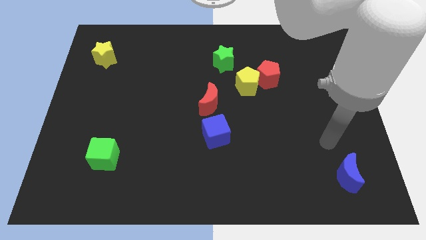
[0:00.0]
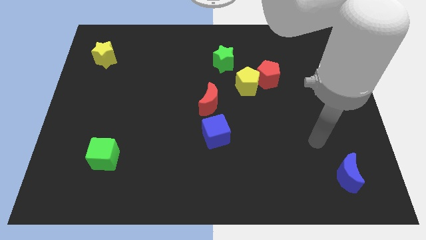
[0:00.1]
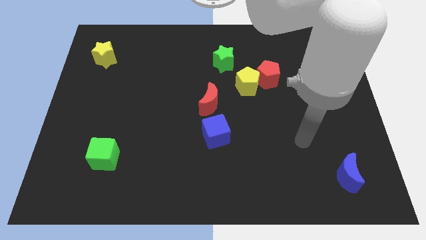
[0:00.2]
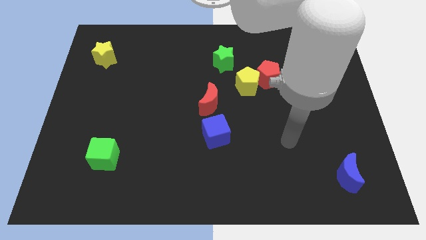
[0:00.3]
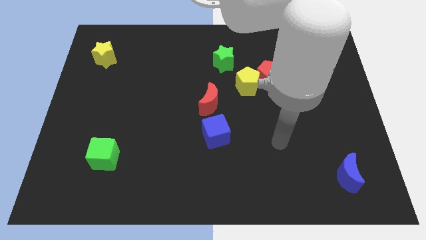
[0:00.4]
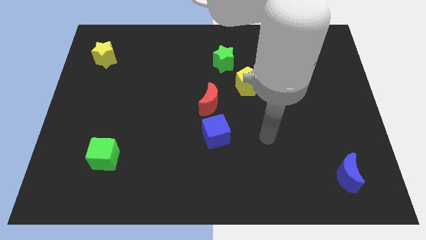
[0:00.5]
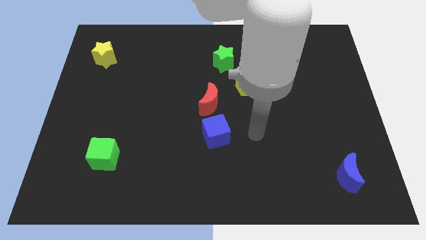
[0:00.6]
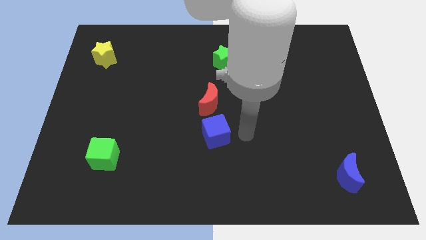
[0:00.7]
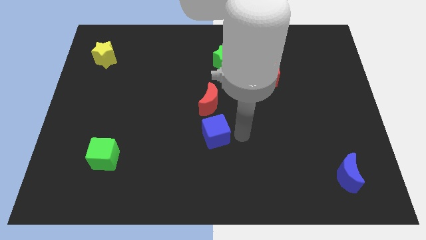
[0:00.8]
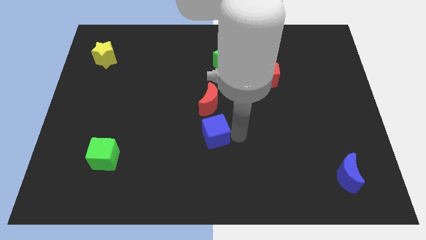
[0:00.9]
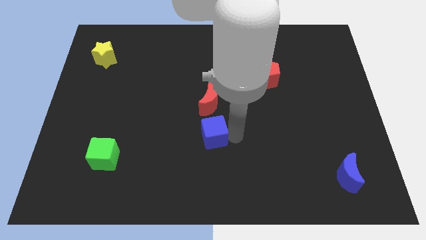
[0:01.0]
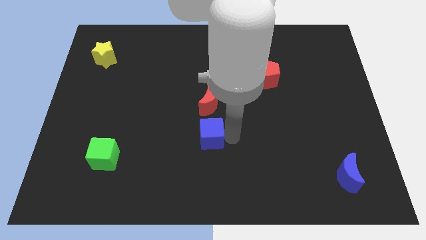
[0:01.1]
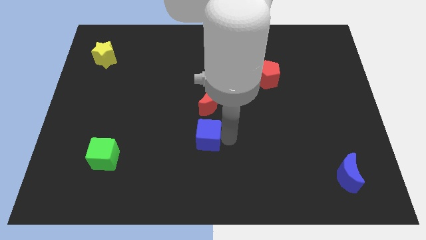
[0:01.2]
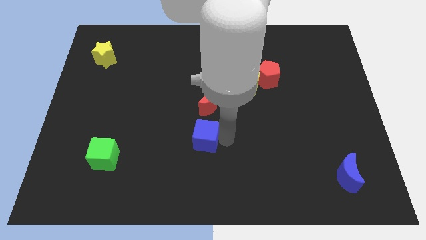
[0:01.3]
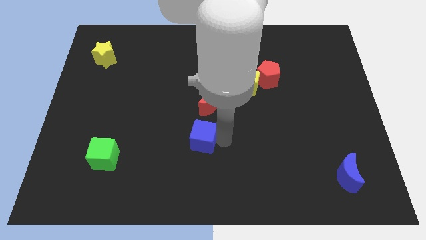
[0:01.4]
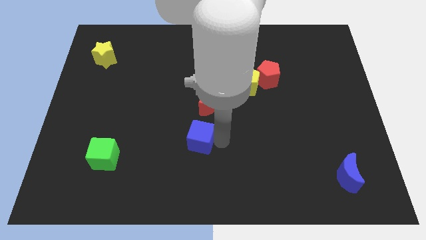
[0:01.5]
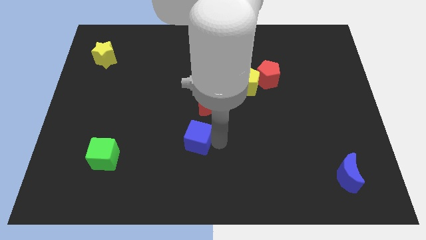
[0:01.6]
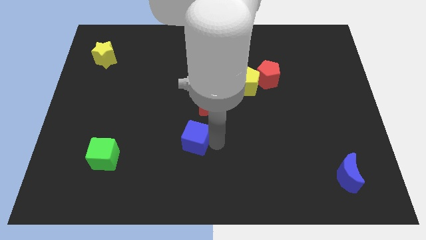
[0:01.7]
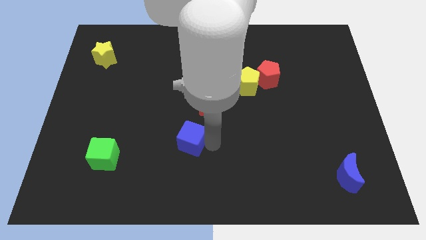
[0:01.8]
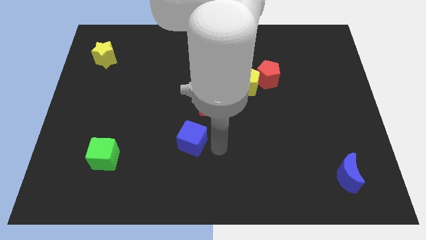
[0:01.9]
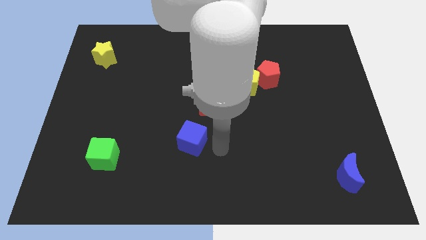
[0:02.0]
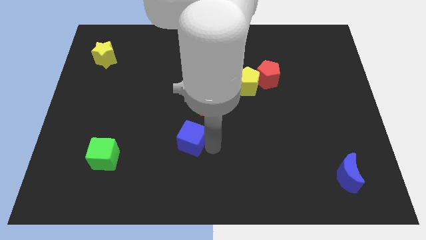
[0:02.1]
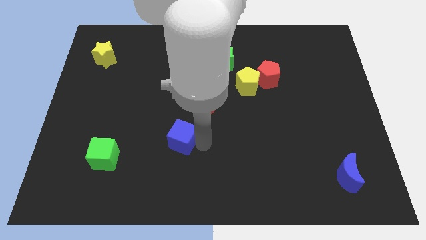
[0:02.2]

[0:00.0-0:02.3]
slightly push the blue cube to the left

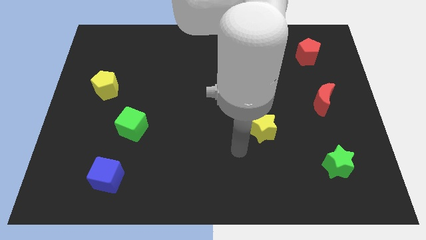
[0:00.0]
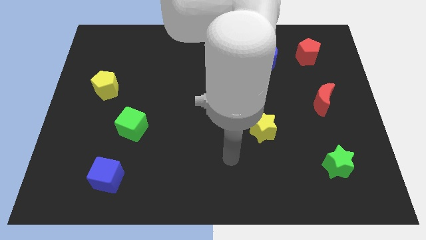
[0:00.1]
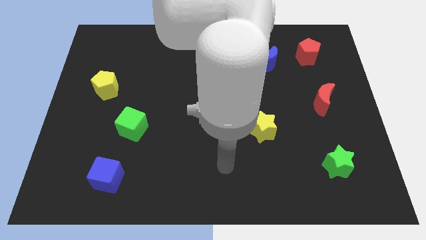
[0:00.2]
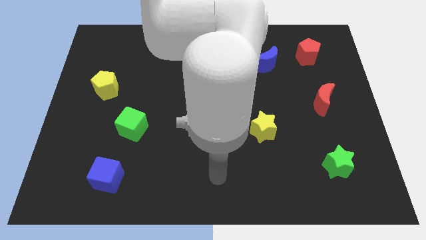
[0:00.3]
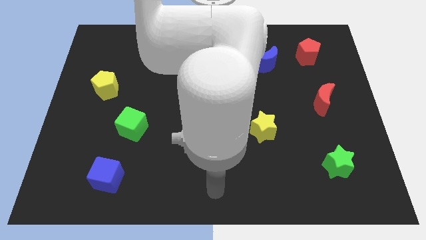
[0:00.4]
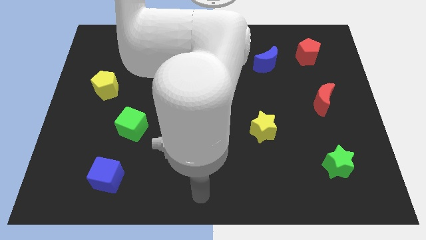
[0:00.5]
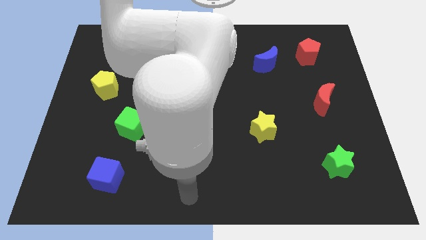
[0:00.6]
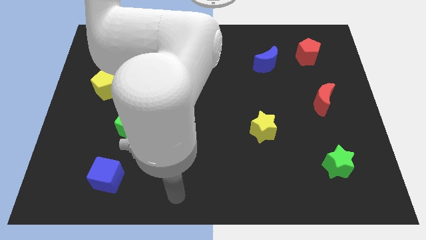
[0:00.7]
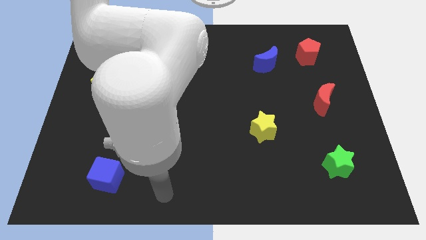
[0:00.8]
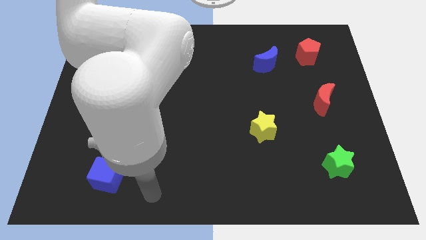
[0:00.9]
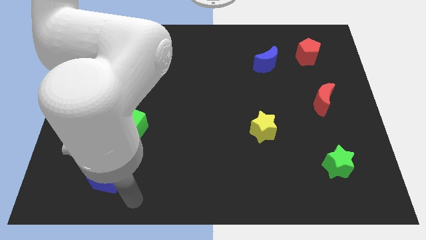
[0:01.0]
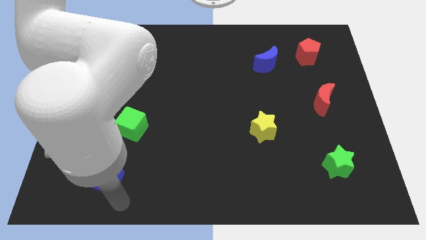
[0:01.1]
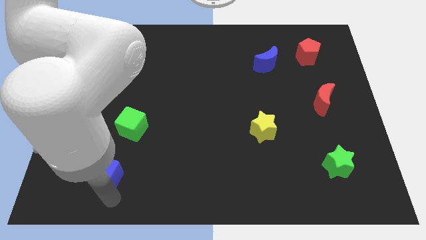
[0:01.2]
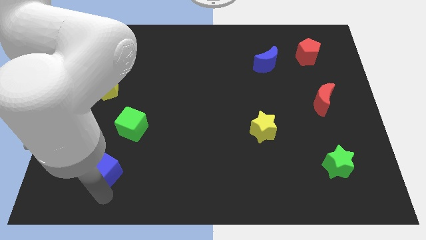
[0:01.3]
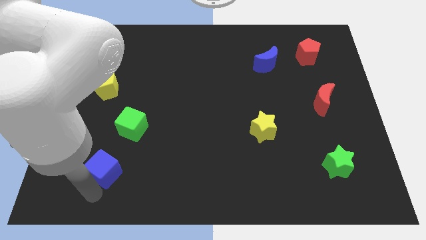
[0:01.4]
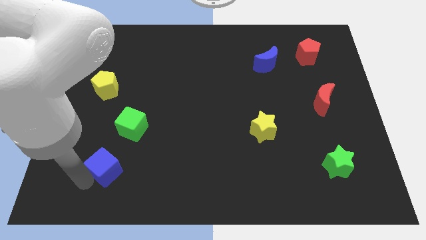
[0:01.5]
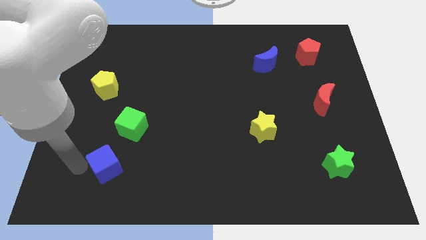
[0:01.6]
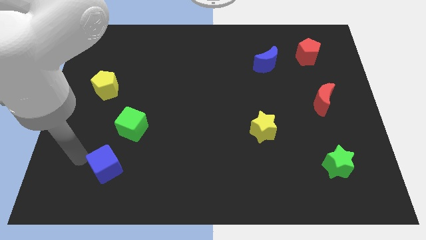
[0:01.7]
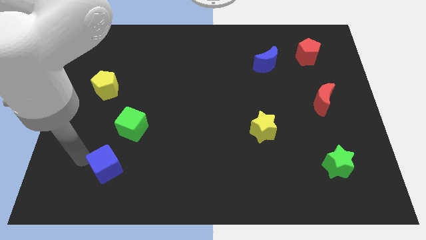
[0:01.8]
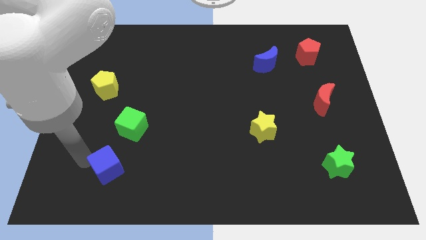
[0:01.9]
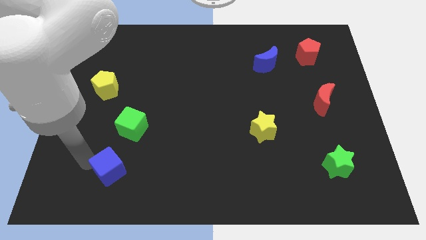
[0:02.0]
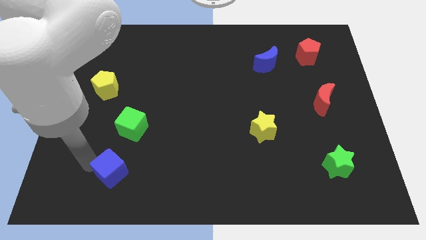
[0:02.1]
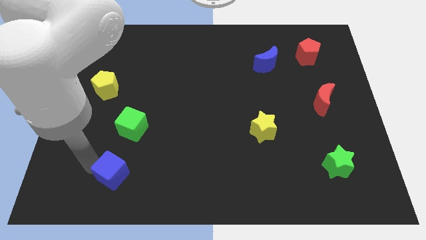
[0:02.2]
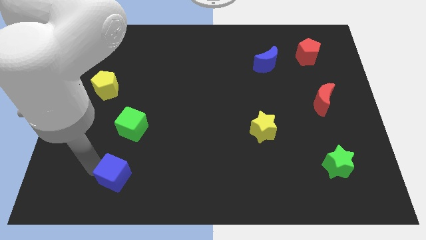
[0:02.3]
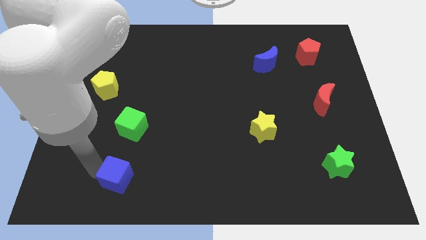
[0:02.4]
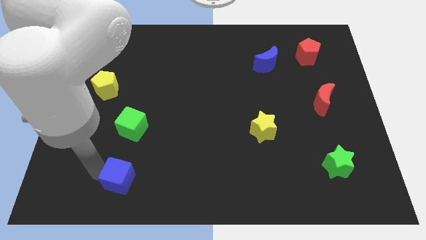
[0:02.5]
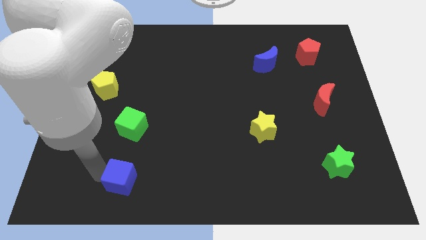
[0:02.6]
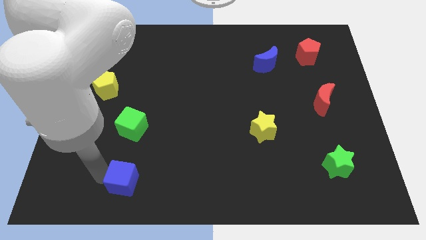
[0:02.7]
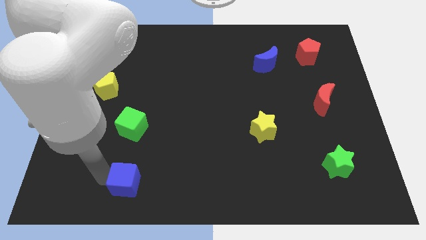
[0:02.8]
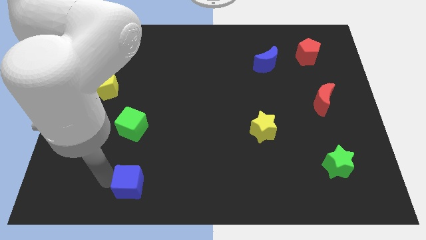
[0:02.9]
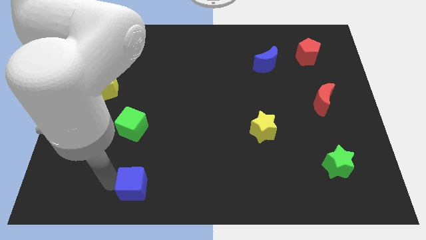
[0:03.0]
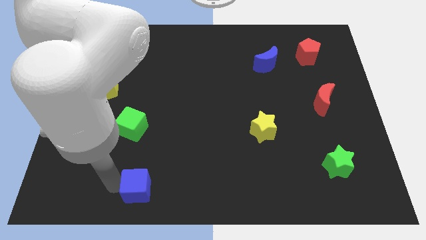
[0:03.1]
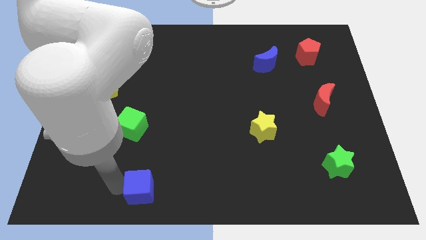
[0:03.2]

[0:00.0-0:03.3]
slightly move the blue cube to the right

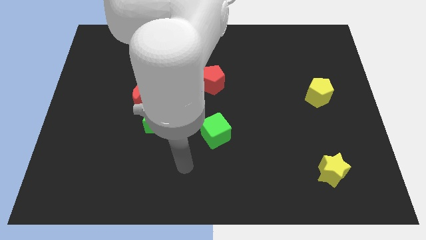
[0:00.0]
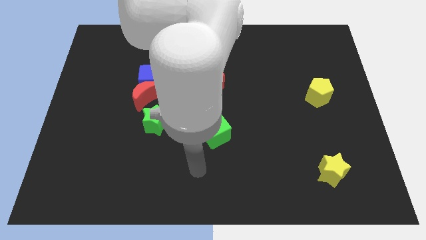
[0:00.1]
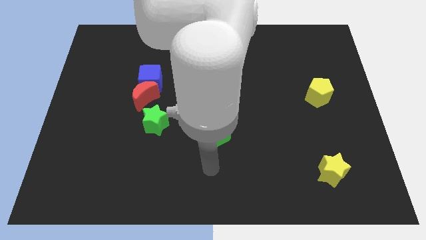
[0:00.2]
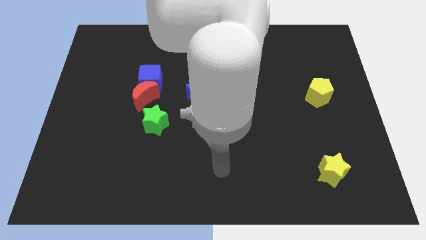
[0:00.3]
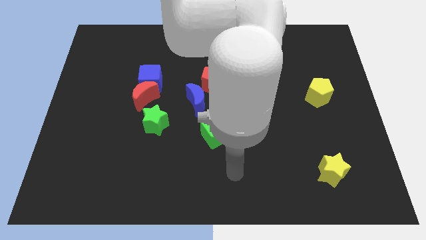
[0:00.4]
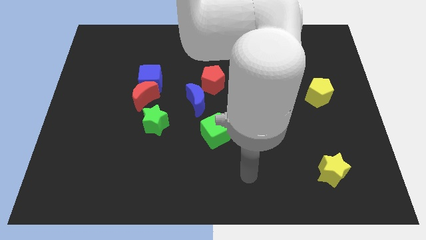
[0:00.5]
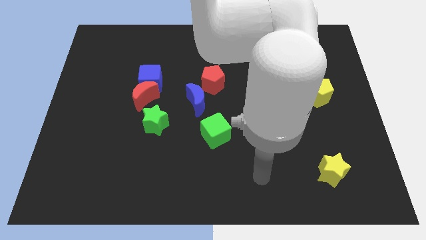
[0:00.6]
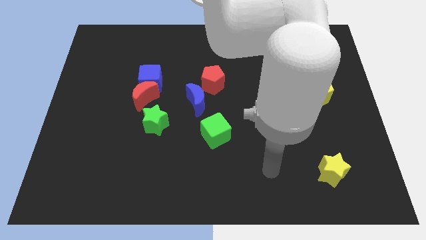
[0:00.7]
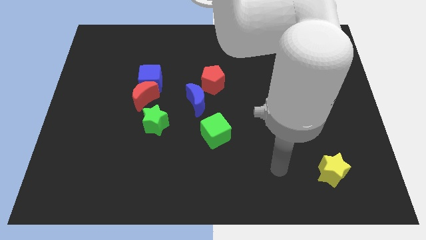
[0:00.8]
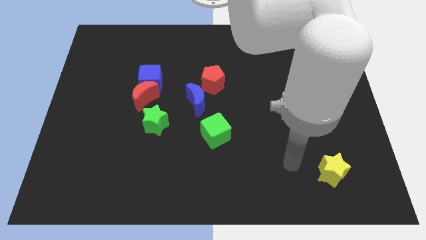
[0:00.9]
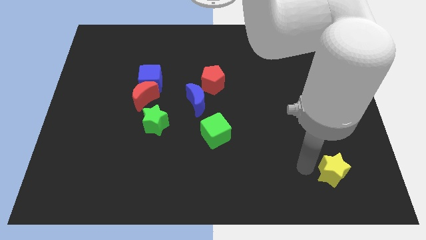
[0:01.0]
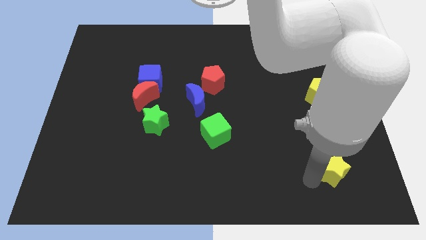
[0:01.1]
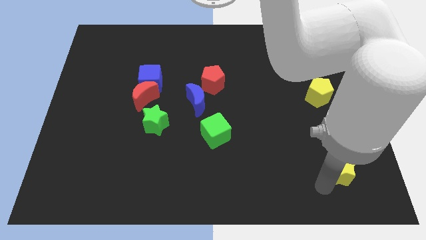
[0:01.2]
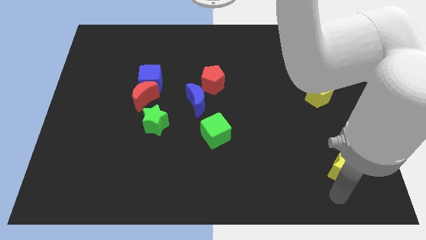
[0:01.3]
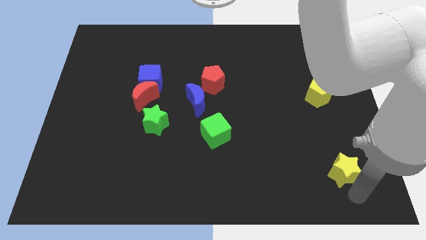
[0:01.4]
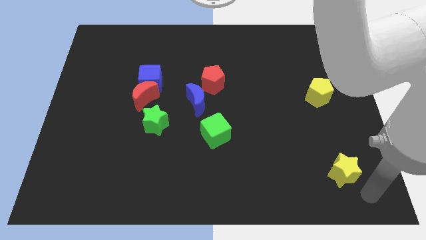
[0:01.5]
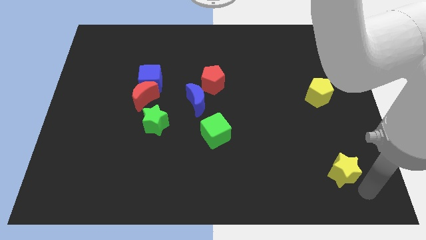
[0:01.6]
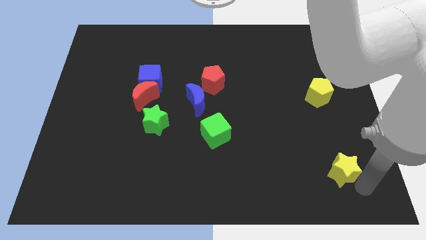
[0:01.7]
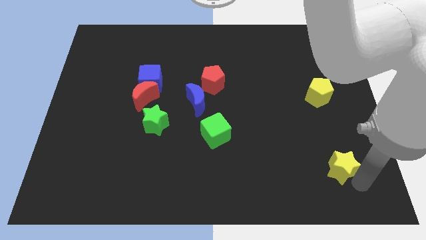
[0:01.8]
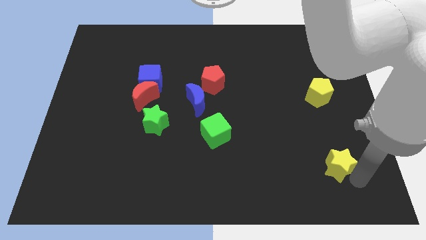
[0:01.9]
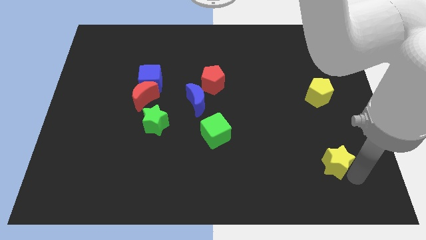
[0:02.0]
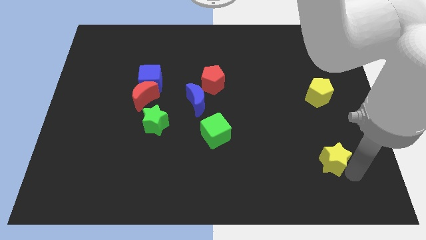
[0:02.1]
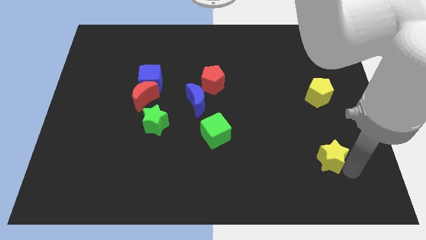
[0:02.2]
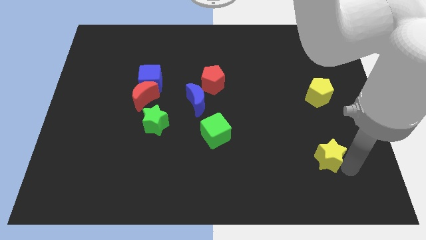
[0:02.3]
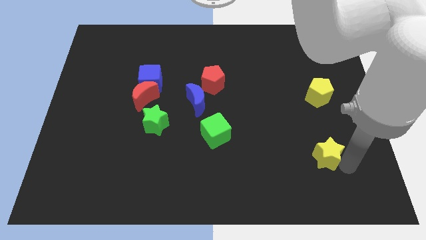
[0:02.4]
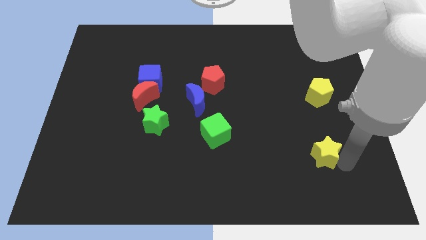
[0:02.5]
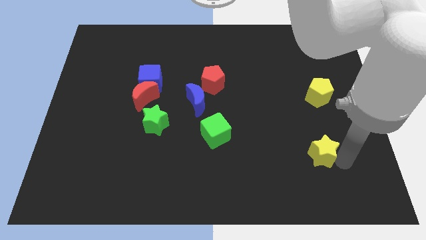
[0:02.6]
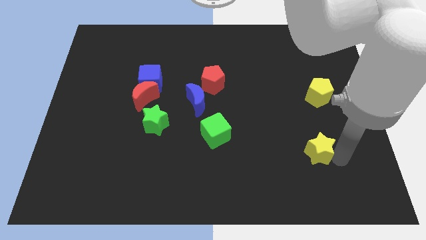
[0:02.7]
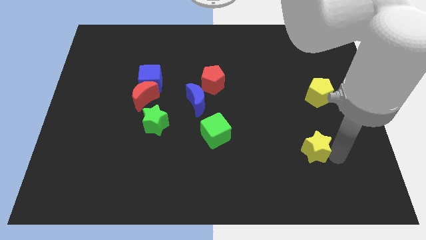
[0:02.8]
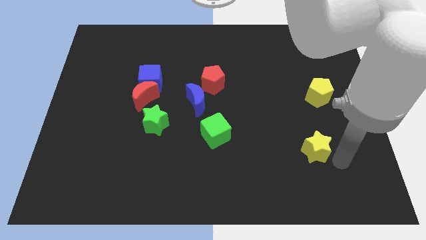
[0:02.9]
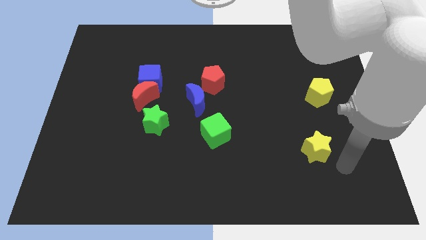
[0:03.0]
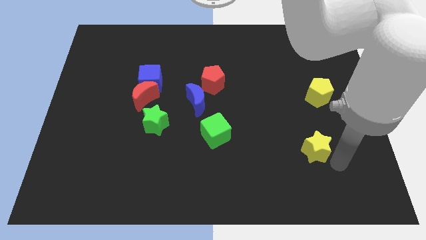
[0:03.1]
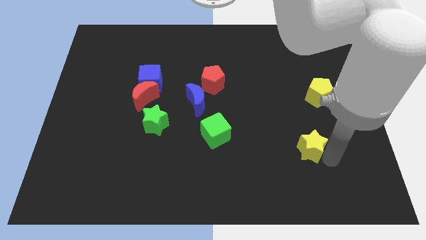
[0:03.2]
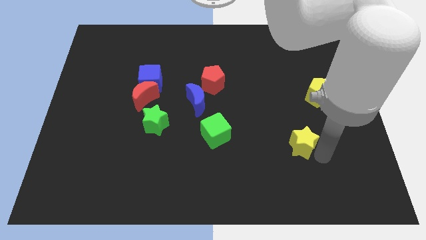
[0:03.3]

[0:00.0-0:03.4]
slightly slide the yellow star upwards and then left
